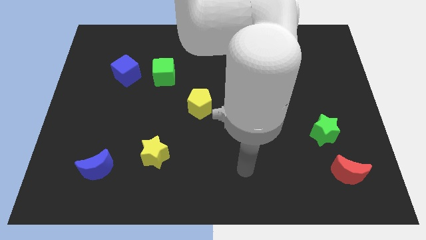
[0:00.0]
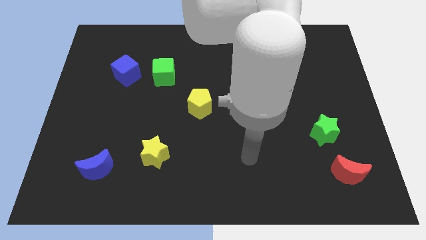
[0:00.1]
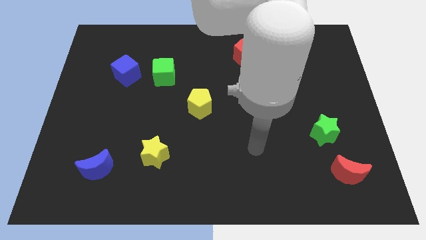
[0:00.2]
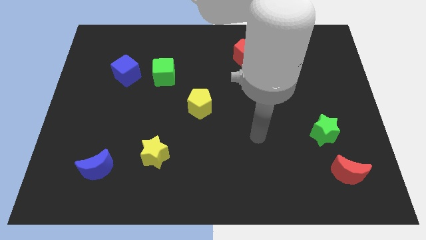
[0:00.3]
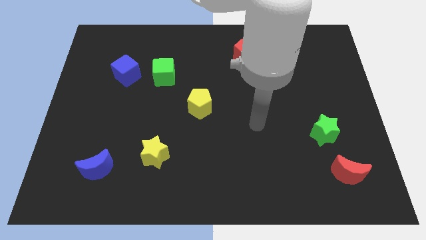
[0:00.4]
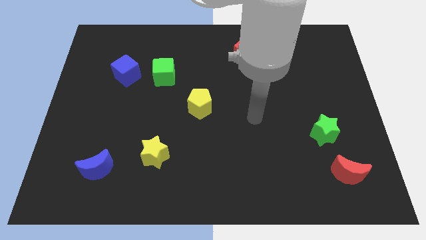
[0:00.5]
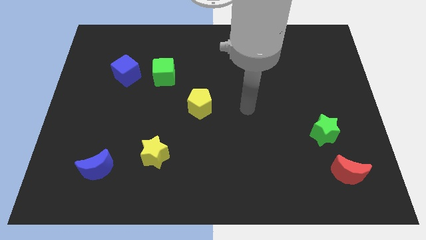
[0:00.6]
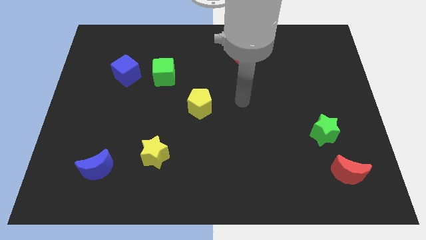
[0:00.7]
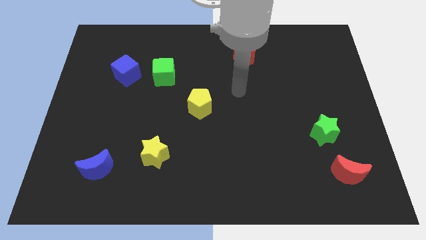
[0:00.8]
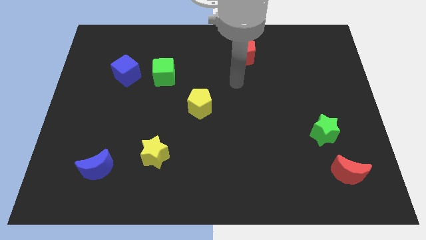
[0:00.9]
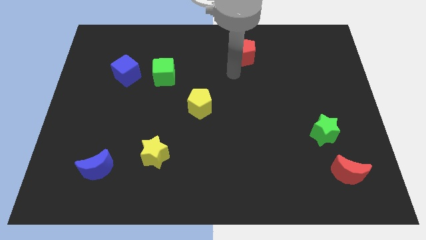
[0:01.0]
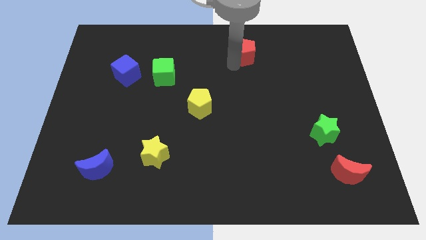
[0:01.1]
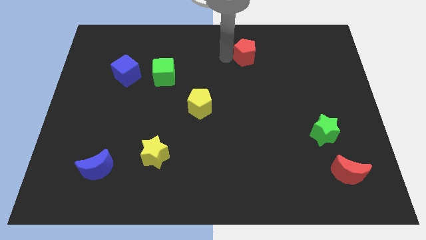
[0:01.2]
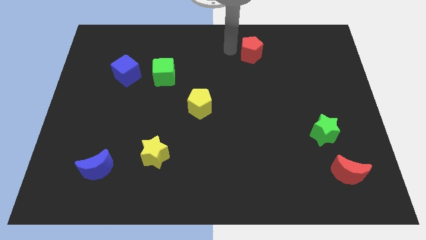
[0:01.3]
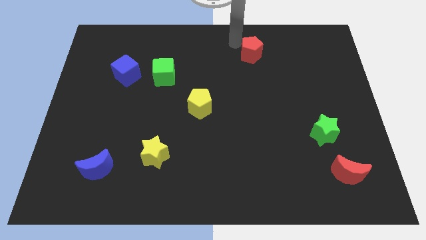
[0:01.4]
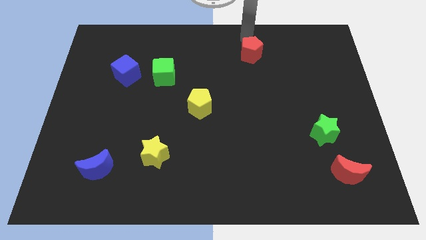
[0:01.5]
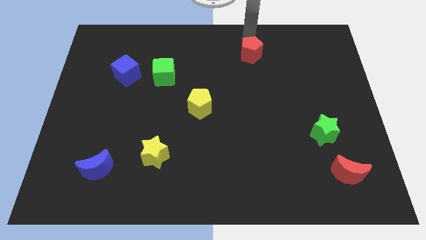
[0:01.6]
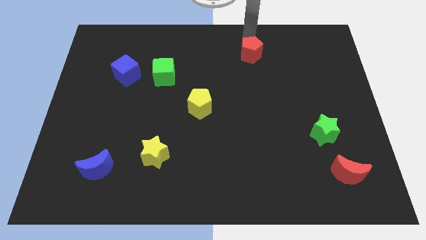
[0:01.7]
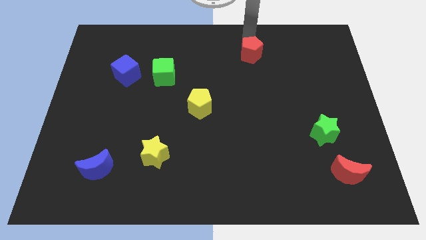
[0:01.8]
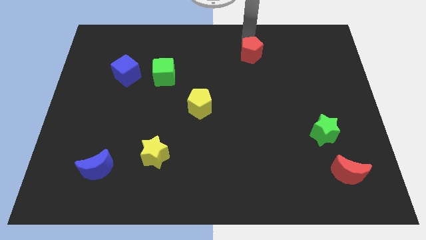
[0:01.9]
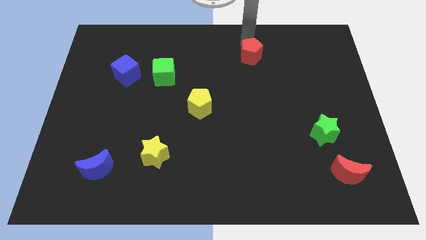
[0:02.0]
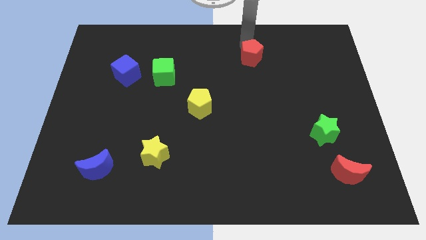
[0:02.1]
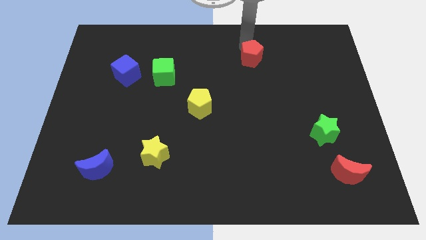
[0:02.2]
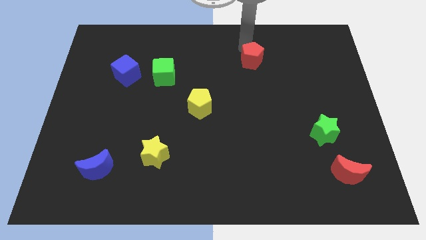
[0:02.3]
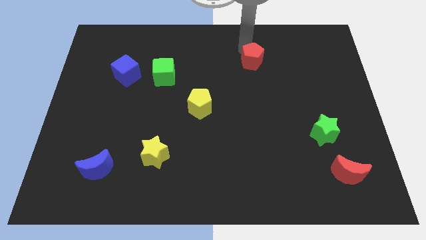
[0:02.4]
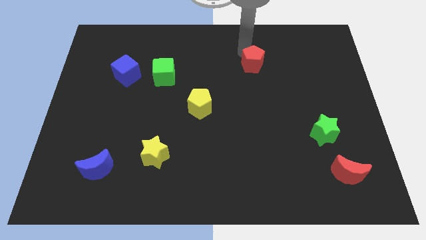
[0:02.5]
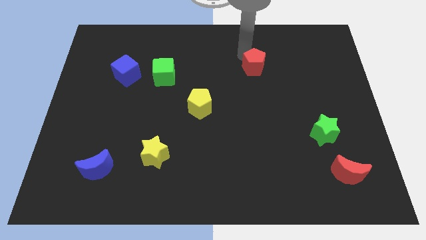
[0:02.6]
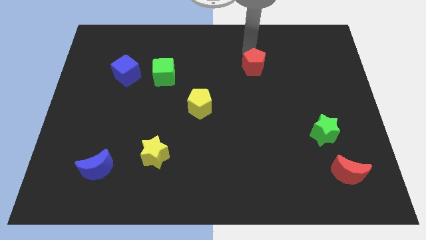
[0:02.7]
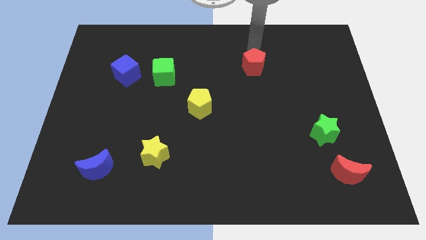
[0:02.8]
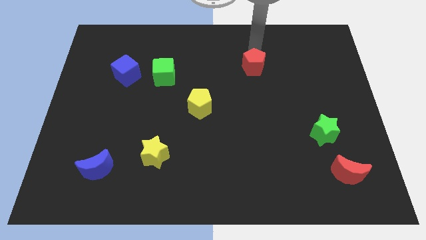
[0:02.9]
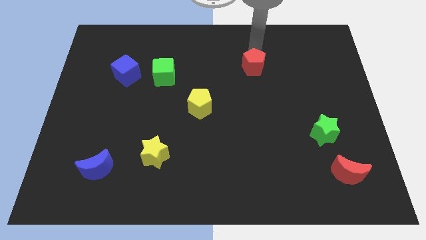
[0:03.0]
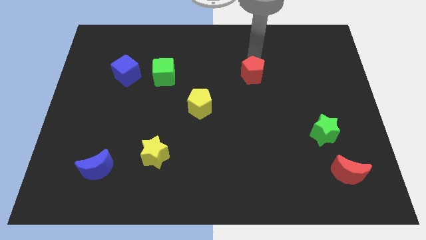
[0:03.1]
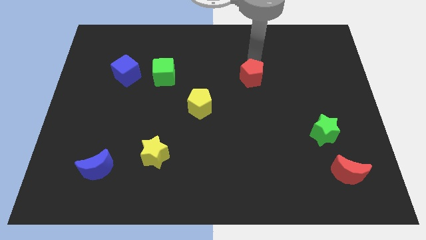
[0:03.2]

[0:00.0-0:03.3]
push the red pentagon a bit down

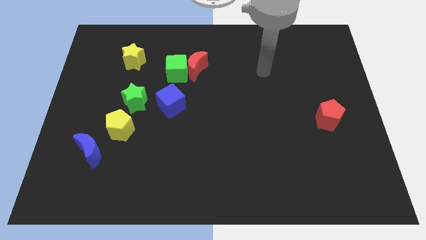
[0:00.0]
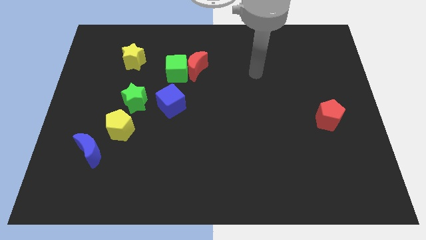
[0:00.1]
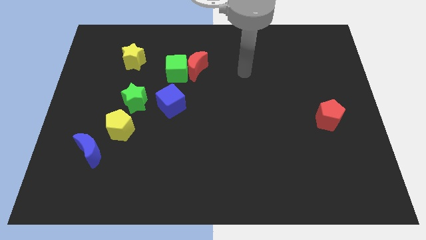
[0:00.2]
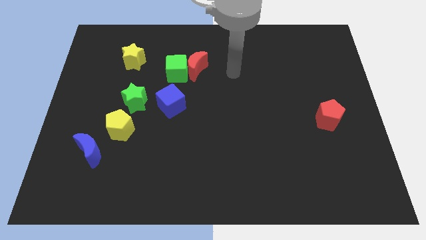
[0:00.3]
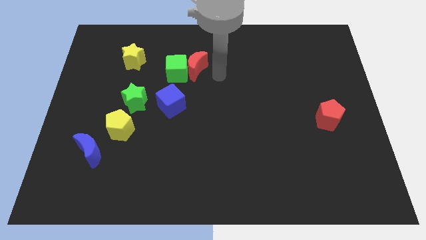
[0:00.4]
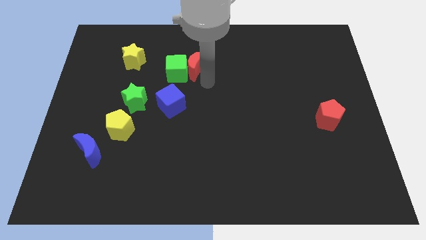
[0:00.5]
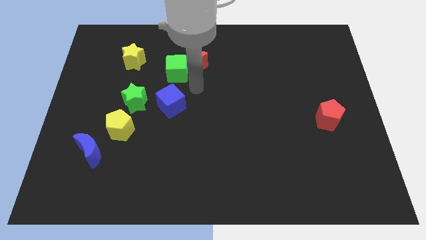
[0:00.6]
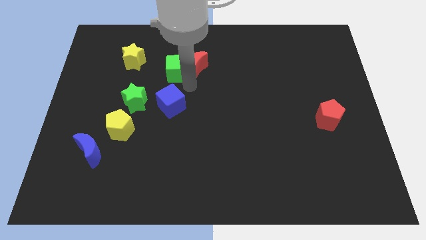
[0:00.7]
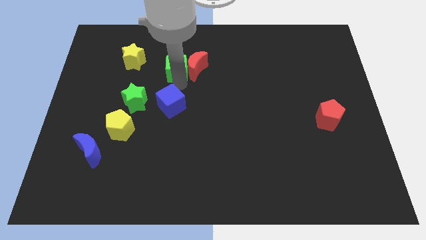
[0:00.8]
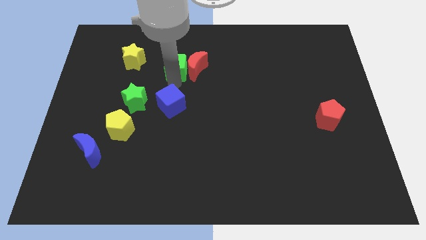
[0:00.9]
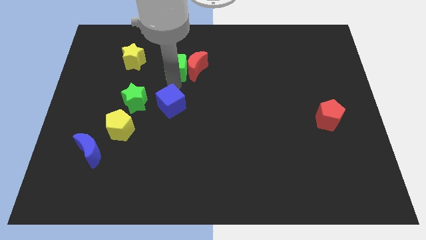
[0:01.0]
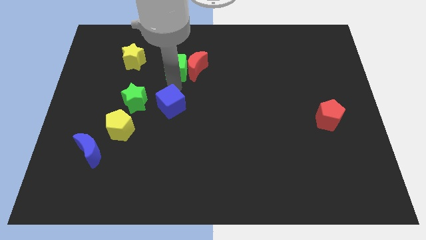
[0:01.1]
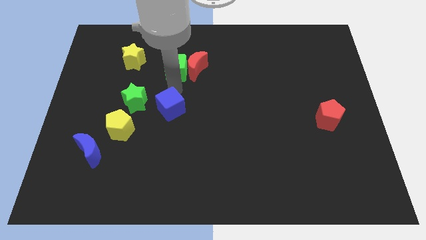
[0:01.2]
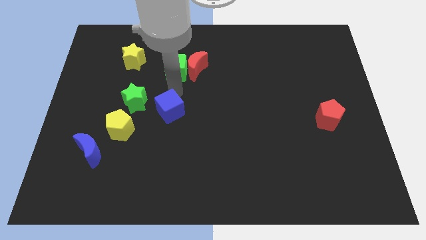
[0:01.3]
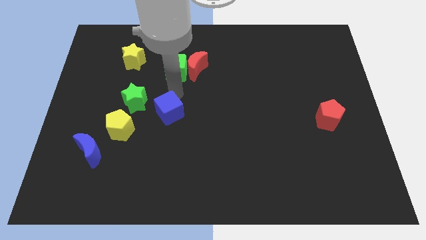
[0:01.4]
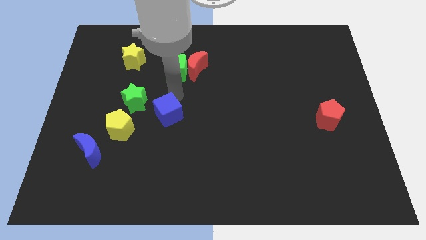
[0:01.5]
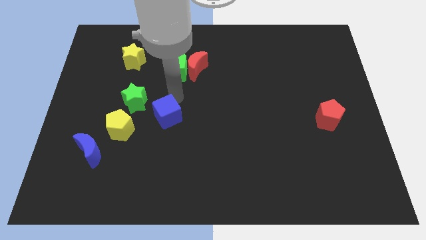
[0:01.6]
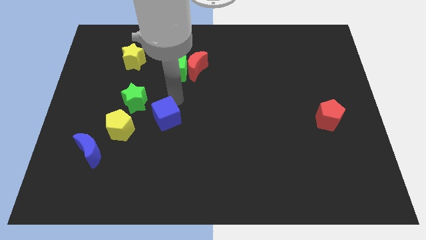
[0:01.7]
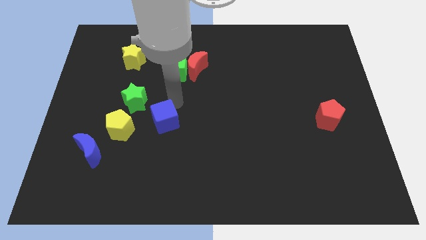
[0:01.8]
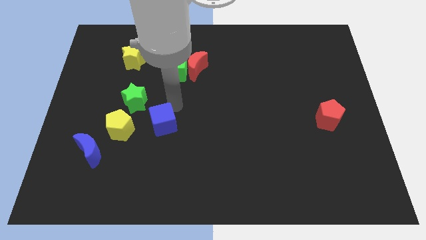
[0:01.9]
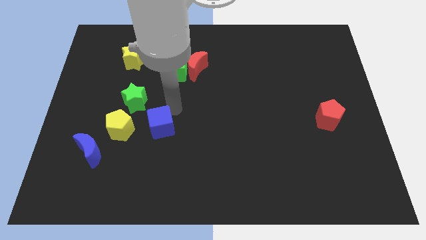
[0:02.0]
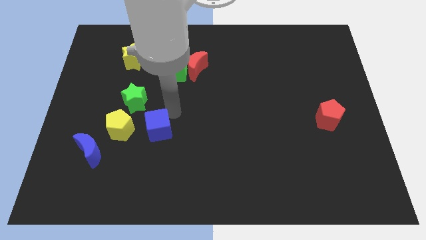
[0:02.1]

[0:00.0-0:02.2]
push the blue cube a little bit downwards

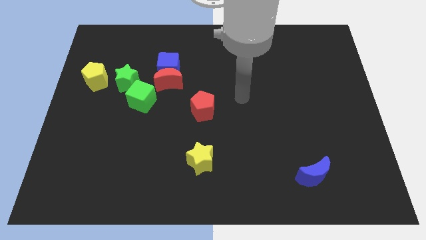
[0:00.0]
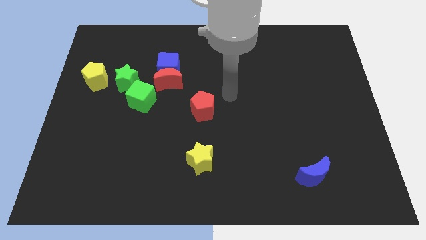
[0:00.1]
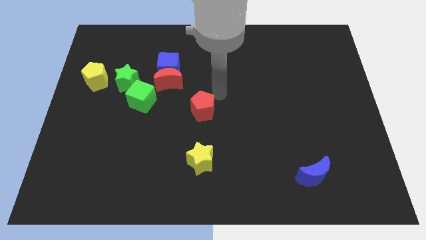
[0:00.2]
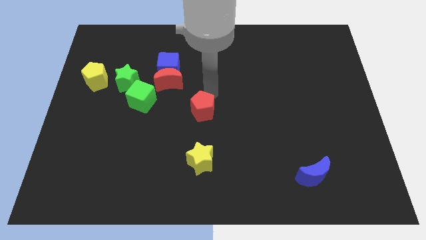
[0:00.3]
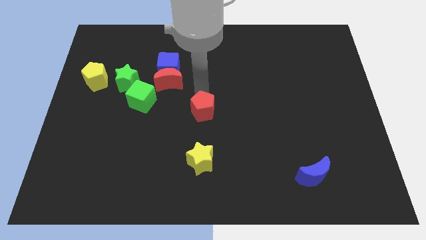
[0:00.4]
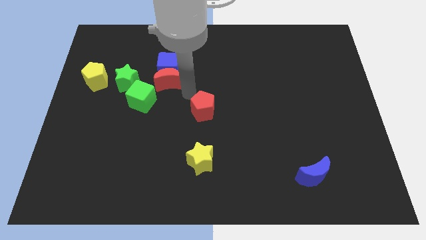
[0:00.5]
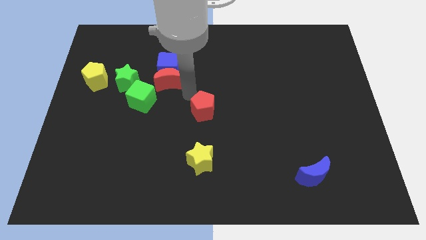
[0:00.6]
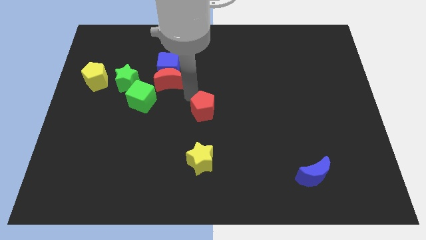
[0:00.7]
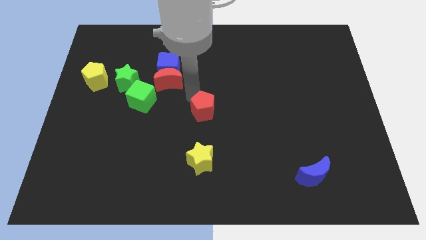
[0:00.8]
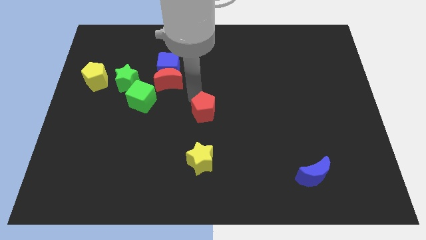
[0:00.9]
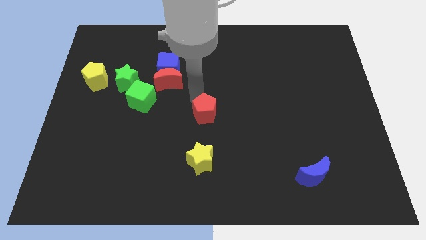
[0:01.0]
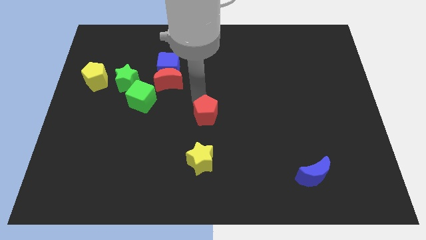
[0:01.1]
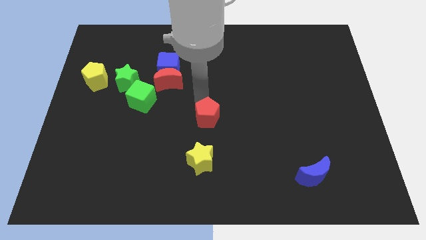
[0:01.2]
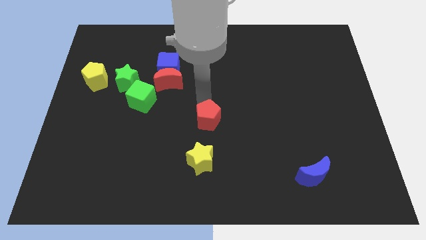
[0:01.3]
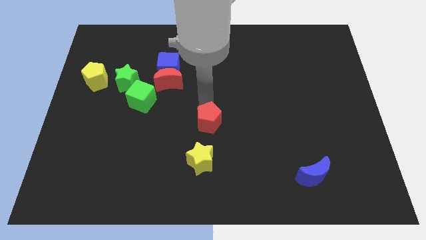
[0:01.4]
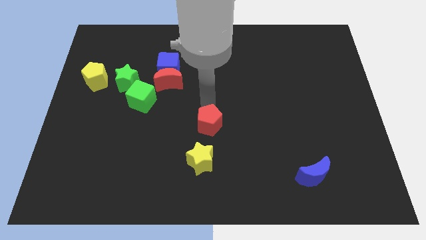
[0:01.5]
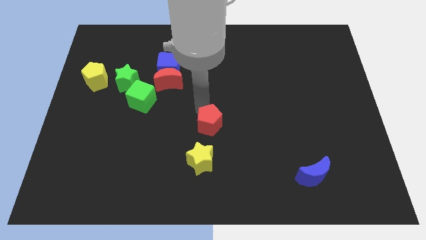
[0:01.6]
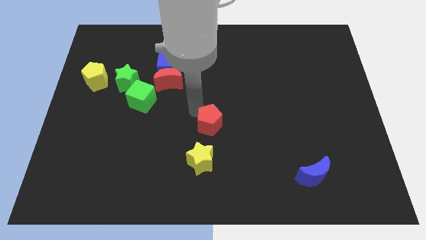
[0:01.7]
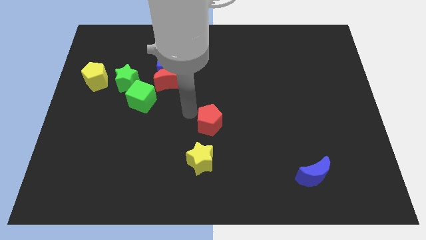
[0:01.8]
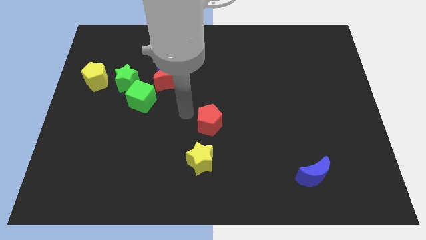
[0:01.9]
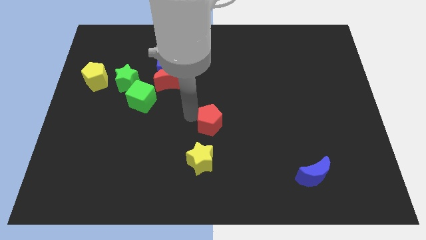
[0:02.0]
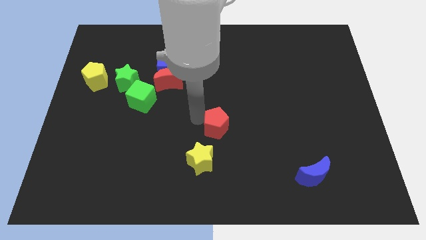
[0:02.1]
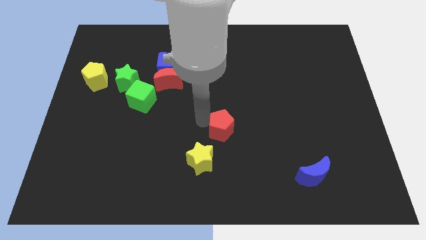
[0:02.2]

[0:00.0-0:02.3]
push the red pentagon slightly downwards and right
